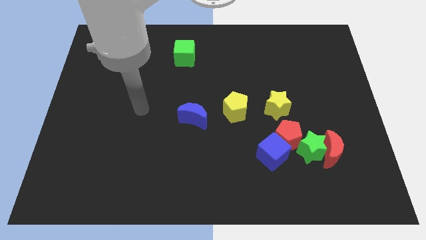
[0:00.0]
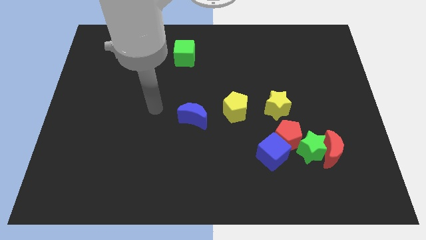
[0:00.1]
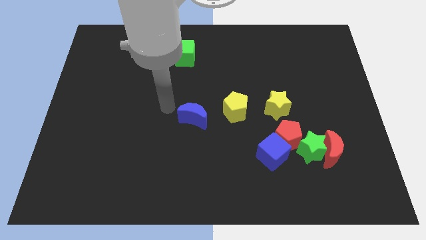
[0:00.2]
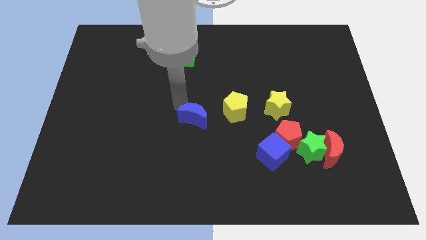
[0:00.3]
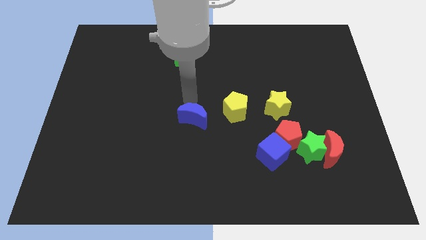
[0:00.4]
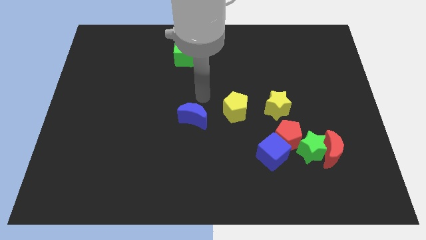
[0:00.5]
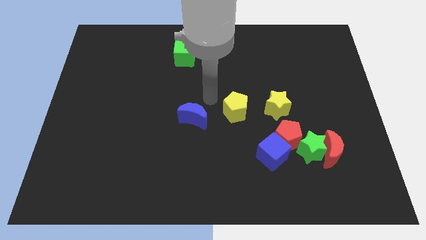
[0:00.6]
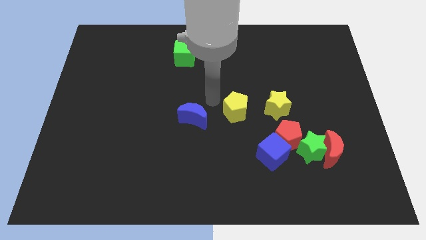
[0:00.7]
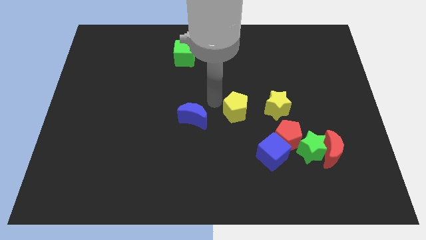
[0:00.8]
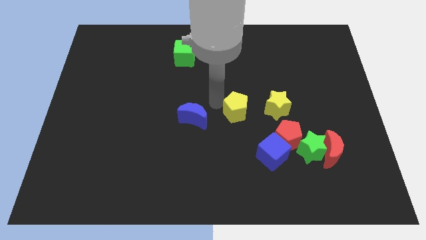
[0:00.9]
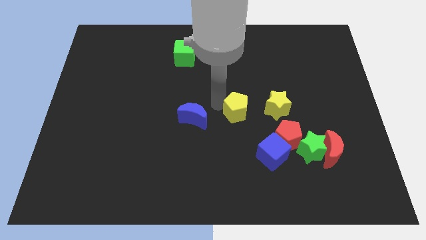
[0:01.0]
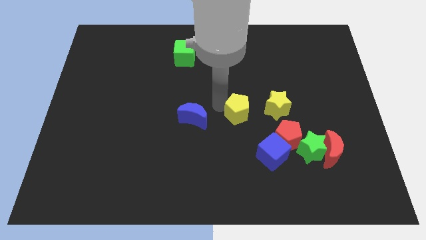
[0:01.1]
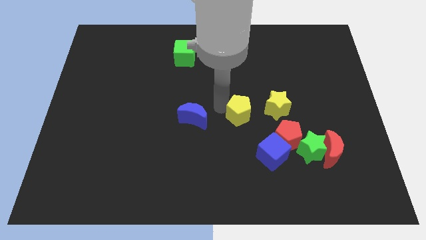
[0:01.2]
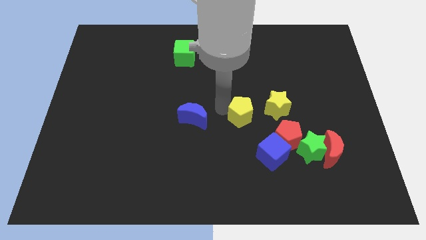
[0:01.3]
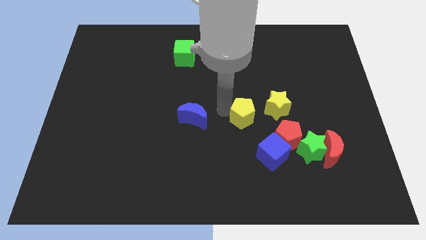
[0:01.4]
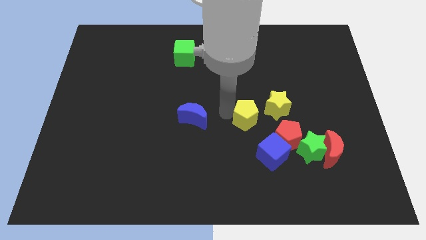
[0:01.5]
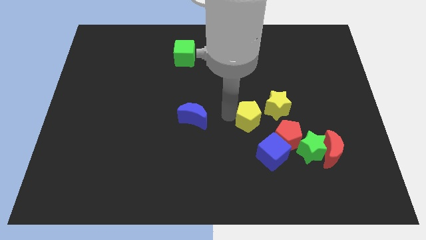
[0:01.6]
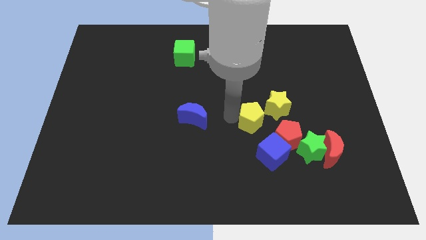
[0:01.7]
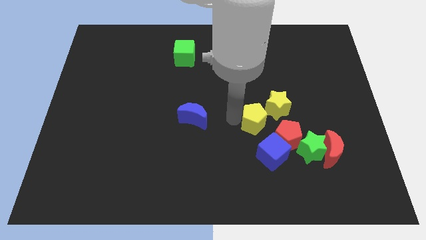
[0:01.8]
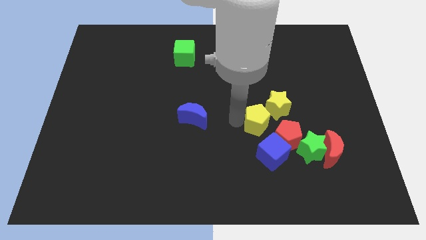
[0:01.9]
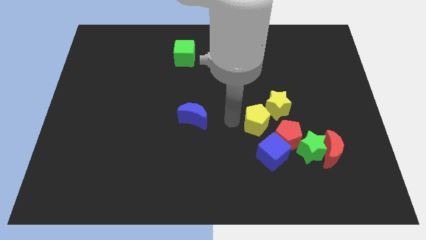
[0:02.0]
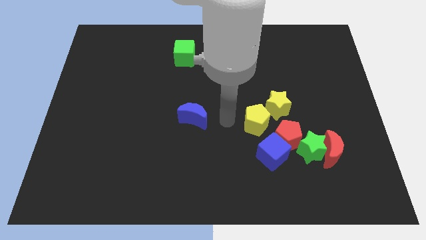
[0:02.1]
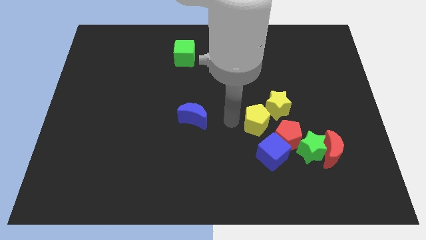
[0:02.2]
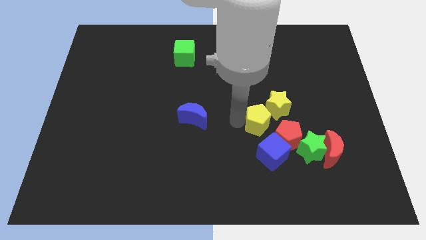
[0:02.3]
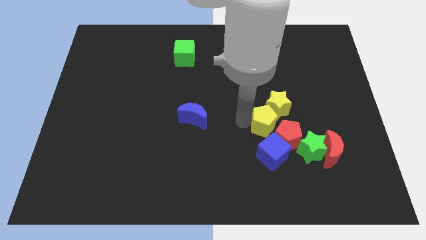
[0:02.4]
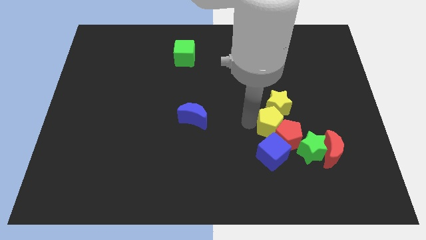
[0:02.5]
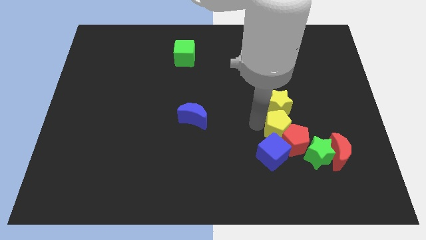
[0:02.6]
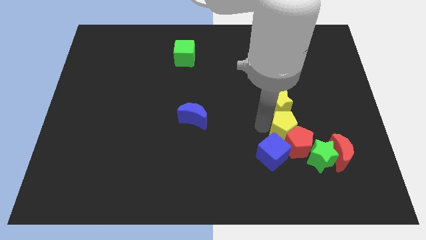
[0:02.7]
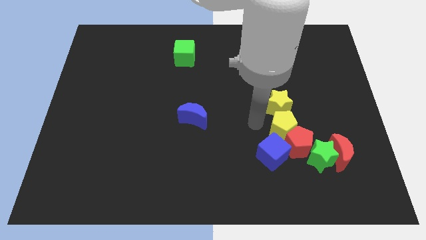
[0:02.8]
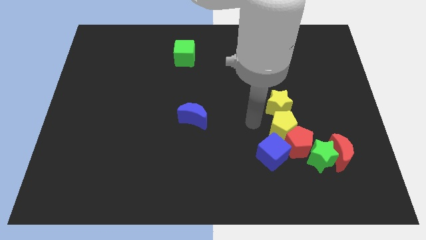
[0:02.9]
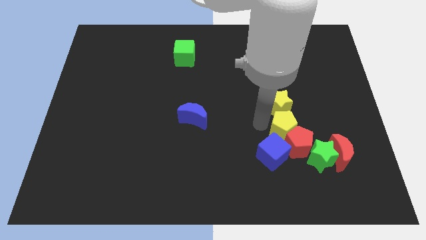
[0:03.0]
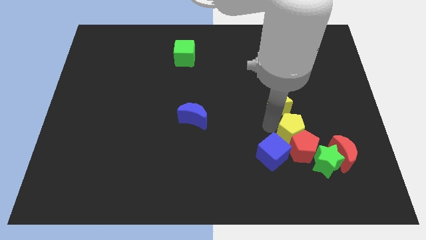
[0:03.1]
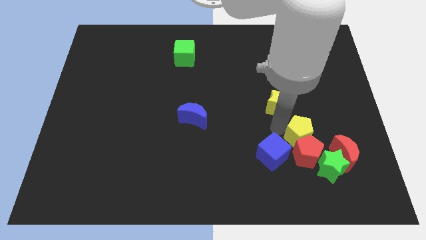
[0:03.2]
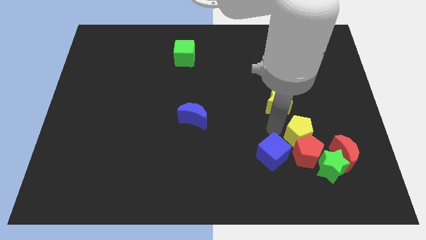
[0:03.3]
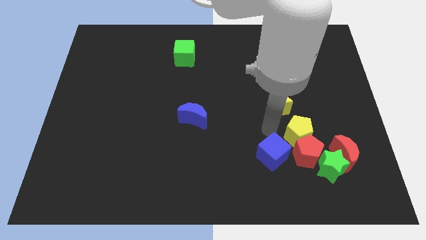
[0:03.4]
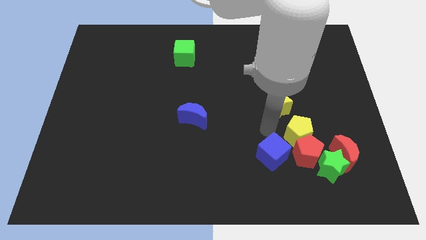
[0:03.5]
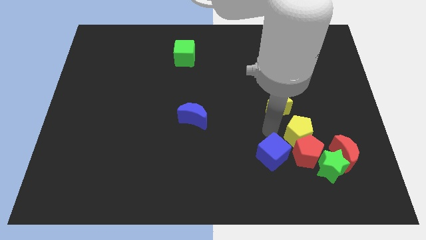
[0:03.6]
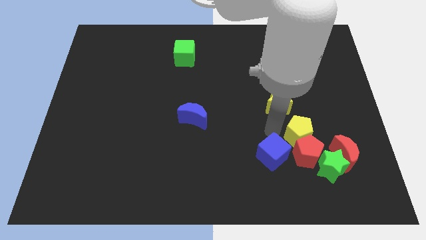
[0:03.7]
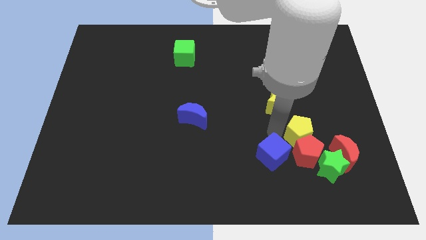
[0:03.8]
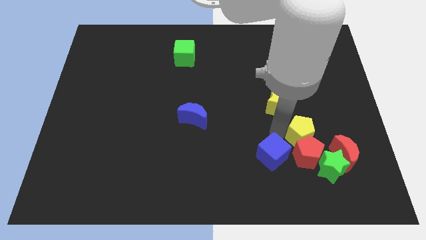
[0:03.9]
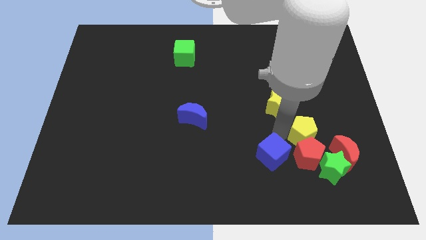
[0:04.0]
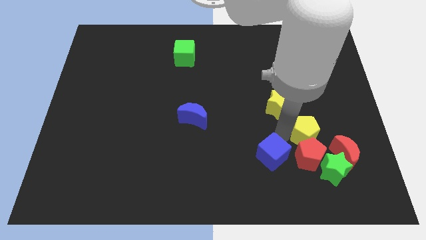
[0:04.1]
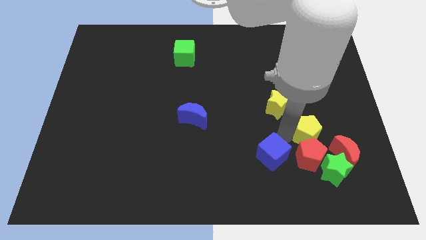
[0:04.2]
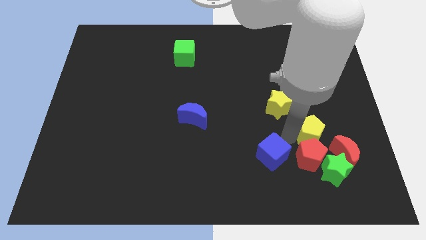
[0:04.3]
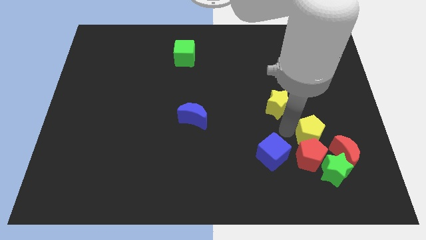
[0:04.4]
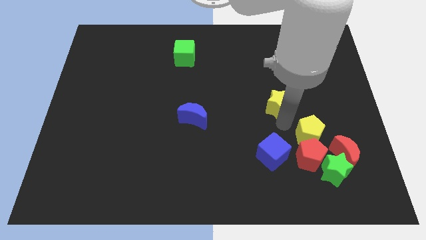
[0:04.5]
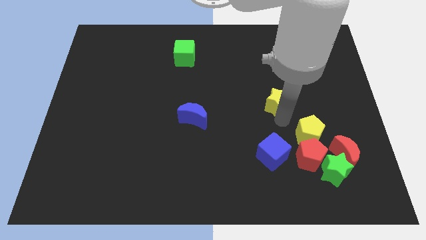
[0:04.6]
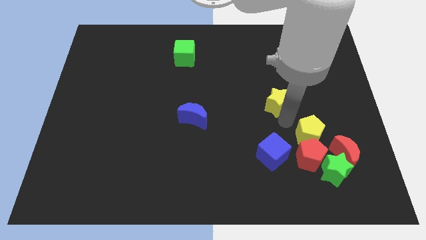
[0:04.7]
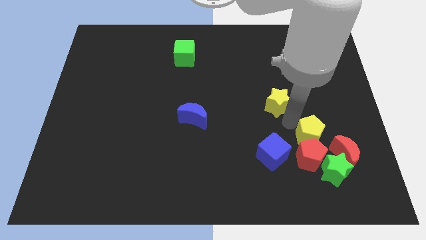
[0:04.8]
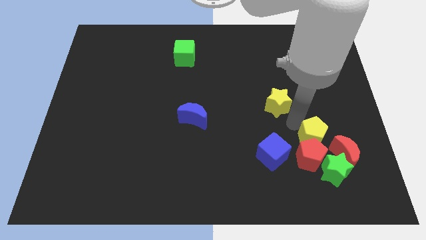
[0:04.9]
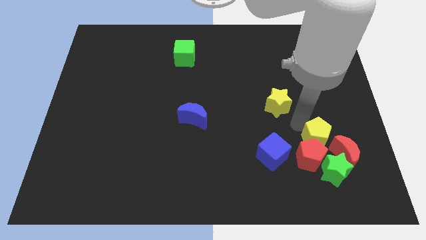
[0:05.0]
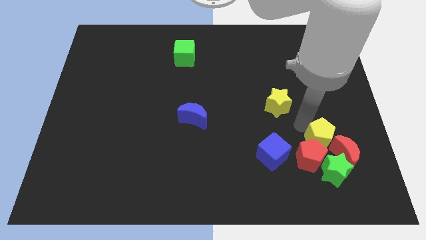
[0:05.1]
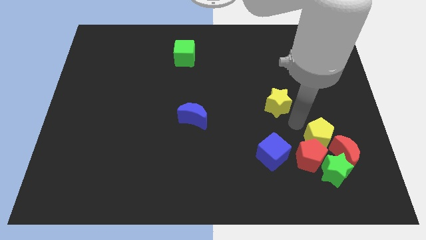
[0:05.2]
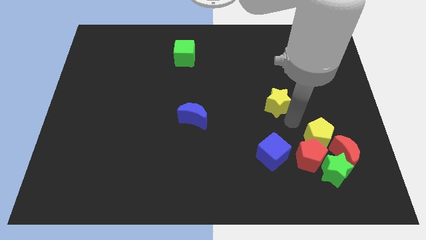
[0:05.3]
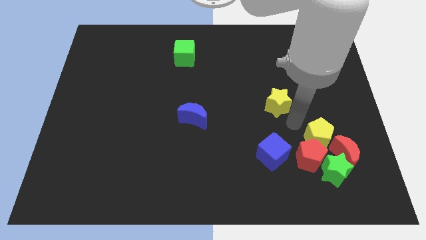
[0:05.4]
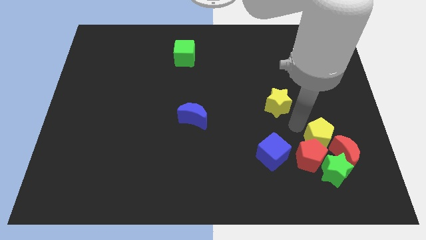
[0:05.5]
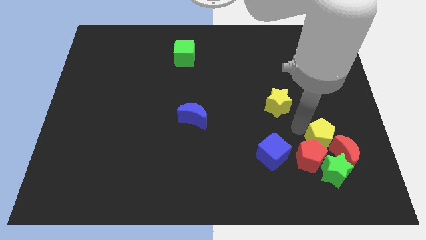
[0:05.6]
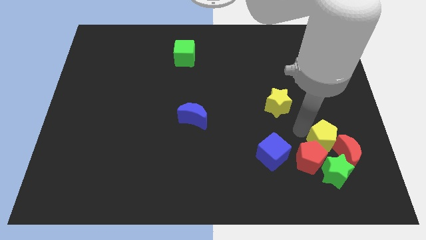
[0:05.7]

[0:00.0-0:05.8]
move the yellow pentagon towards the red moon
